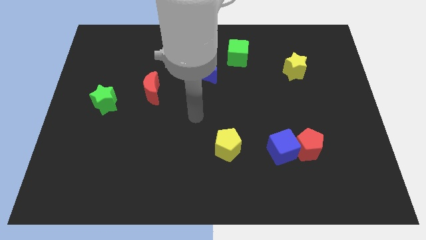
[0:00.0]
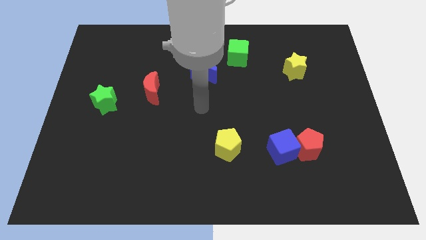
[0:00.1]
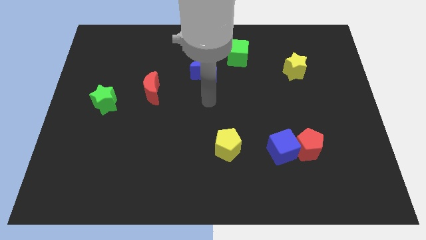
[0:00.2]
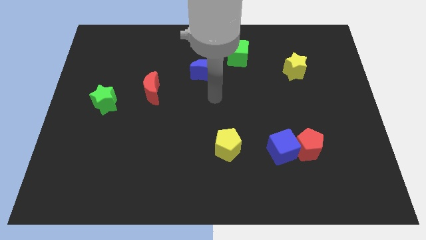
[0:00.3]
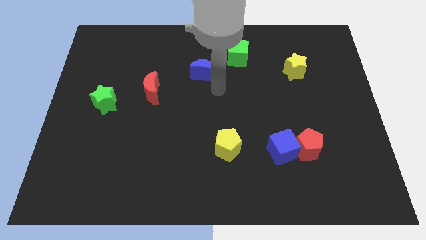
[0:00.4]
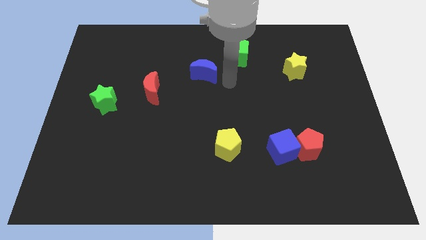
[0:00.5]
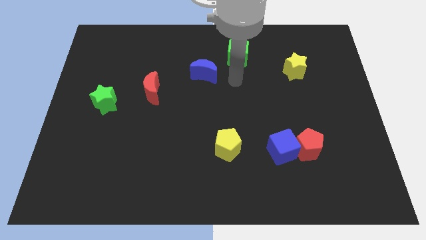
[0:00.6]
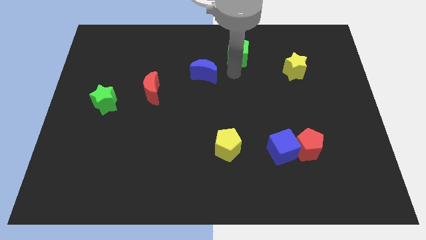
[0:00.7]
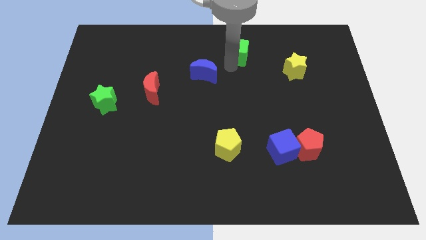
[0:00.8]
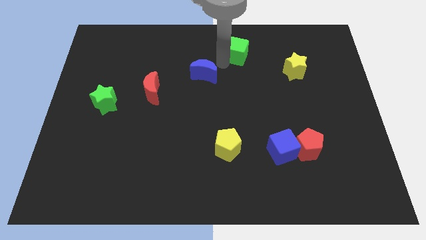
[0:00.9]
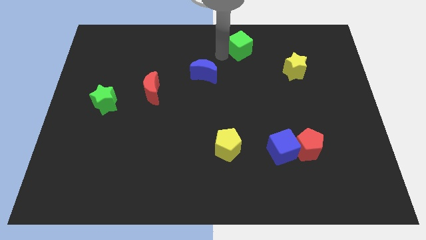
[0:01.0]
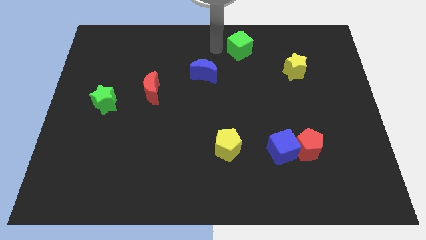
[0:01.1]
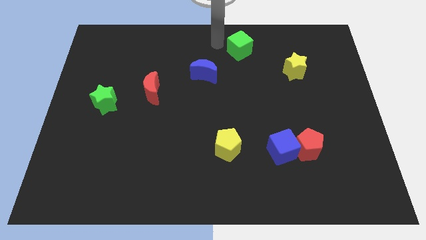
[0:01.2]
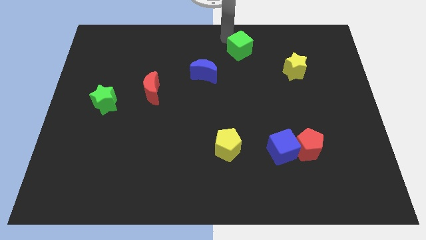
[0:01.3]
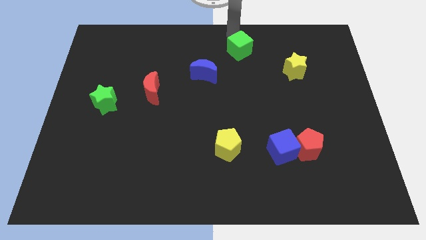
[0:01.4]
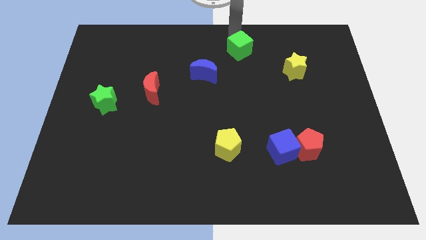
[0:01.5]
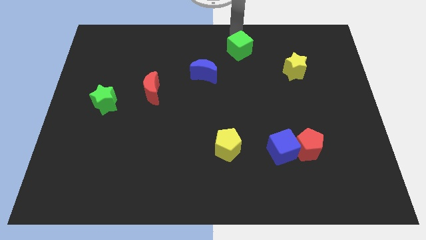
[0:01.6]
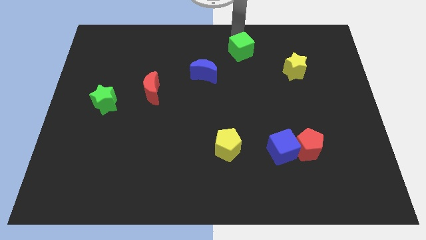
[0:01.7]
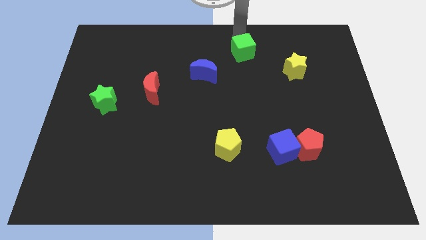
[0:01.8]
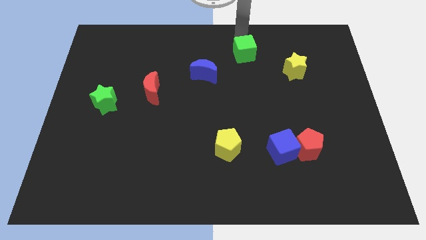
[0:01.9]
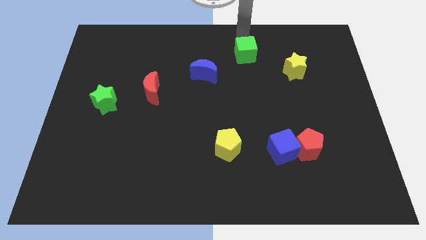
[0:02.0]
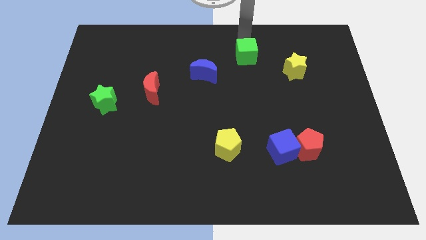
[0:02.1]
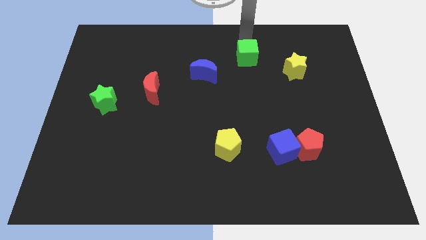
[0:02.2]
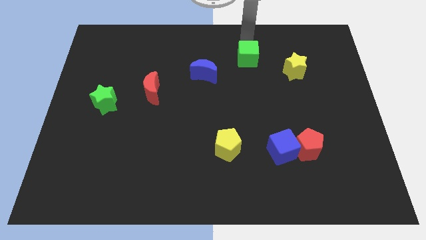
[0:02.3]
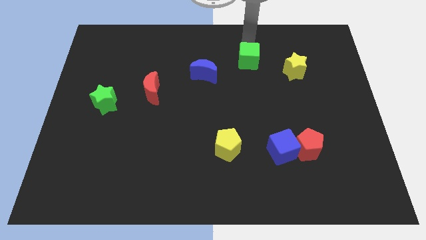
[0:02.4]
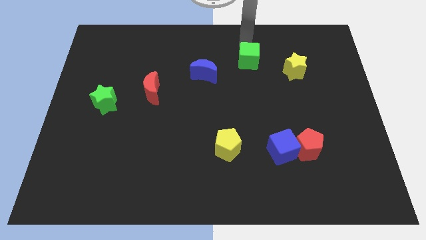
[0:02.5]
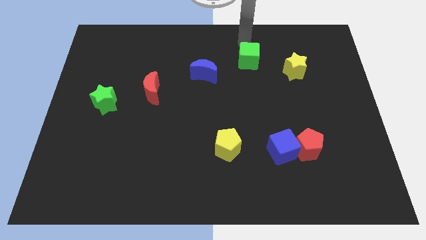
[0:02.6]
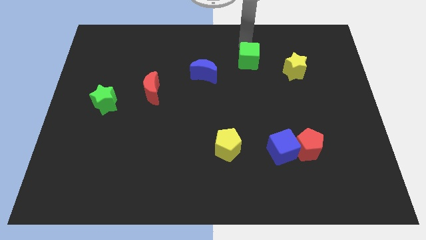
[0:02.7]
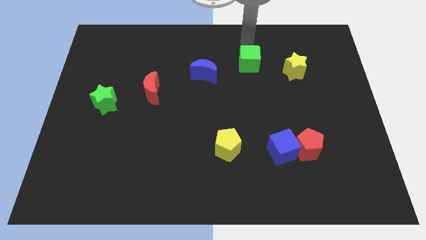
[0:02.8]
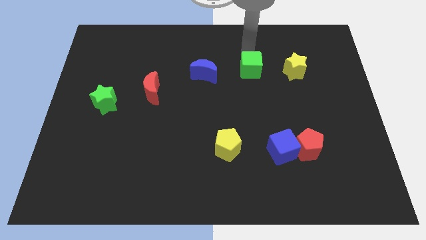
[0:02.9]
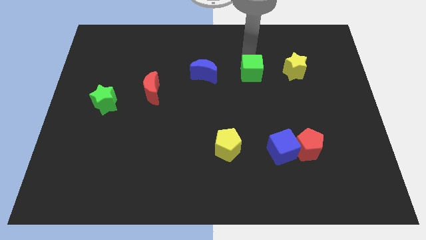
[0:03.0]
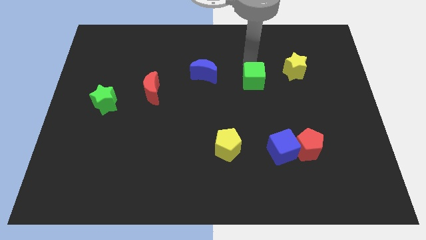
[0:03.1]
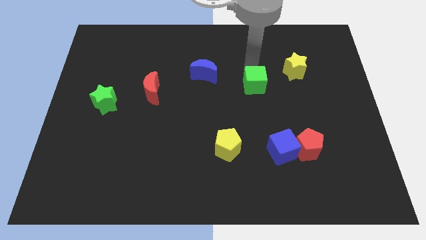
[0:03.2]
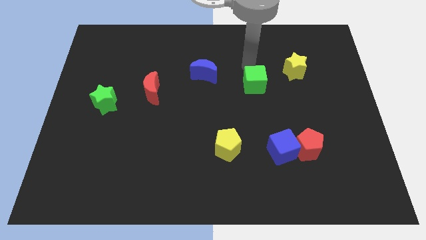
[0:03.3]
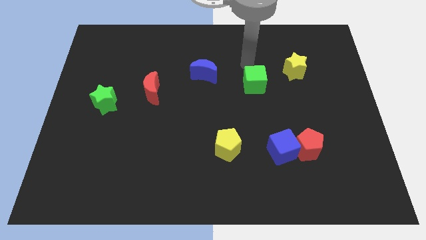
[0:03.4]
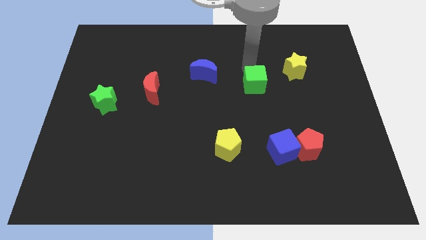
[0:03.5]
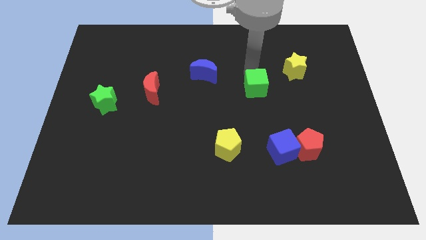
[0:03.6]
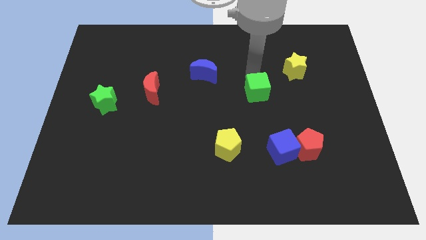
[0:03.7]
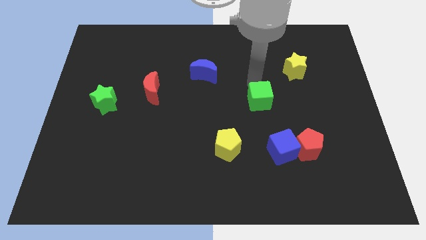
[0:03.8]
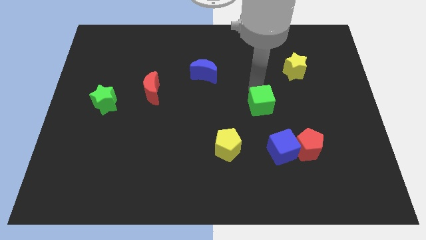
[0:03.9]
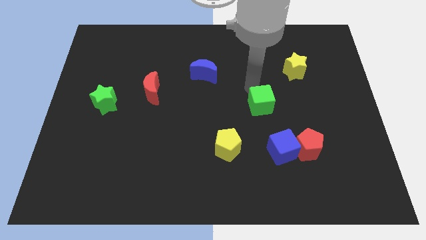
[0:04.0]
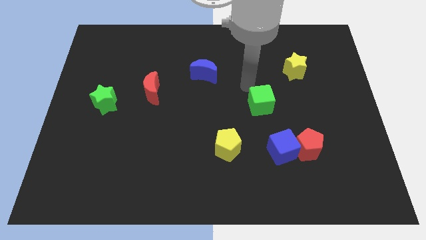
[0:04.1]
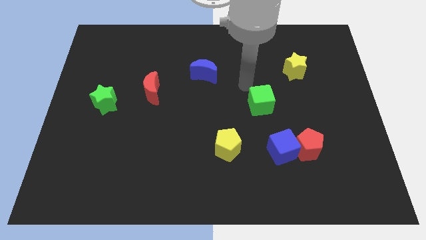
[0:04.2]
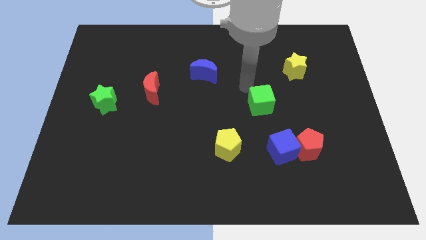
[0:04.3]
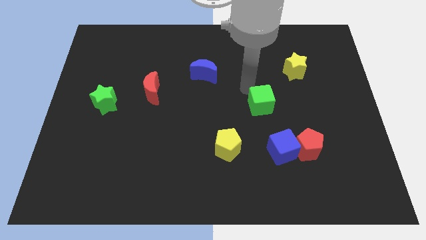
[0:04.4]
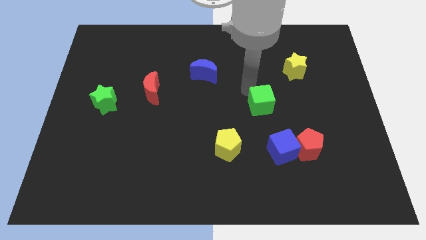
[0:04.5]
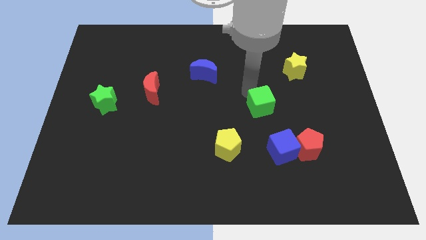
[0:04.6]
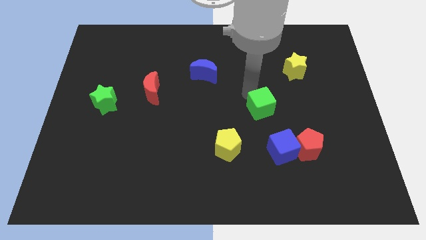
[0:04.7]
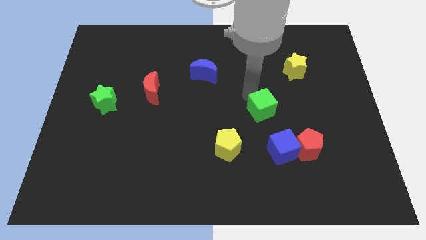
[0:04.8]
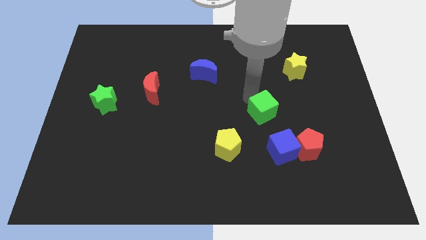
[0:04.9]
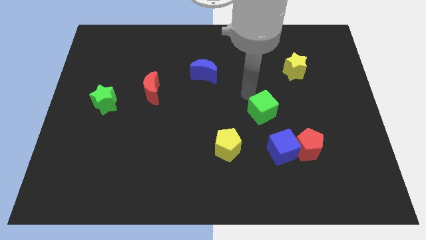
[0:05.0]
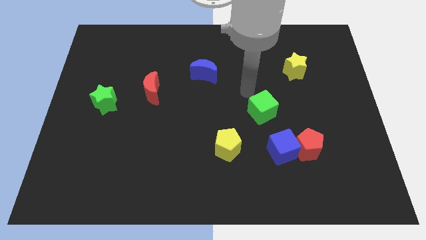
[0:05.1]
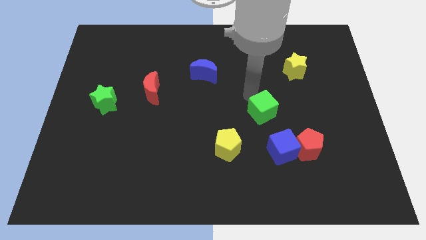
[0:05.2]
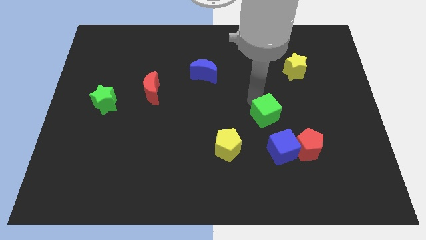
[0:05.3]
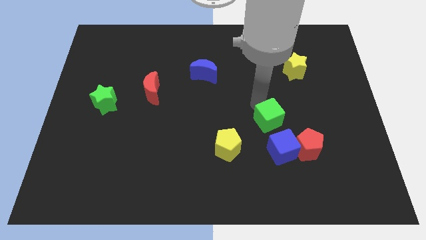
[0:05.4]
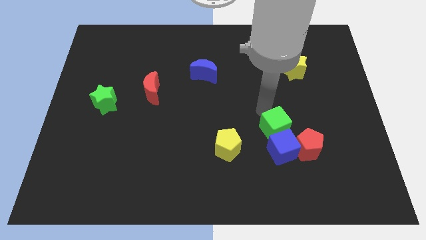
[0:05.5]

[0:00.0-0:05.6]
slide the green cube close to the blue cube

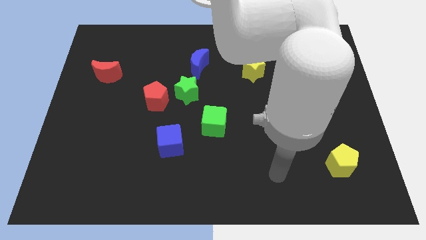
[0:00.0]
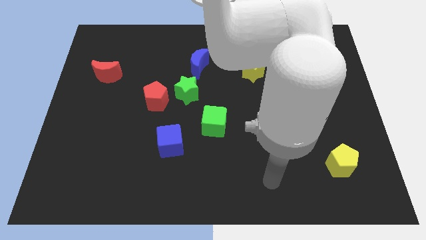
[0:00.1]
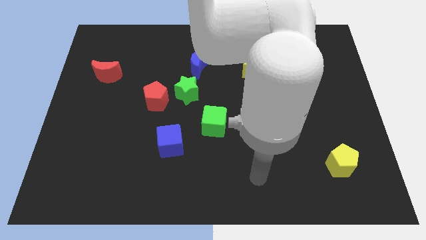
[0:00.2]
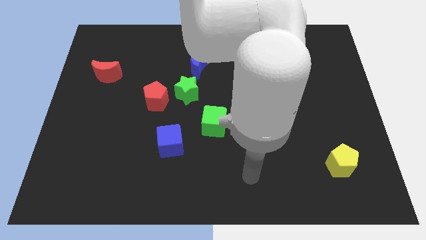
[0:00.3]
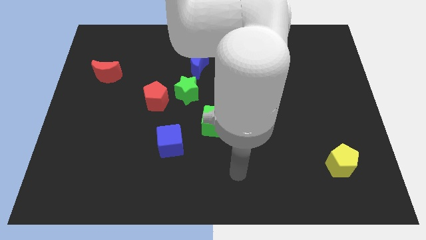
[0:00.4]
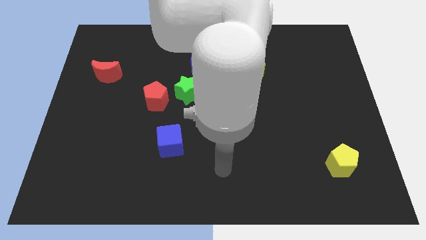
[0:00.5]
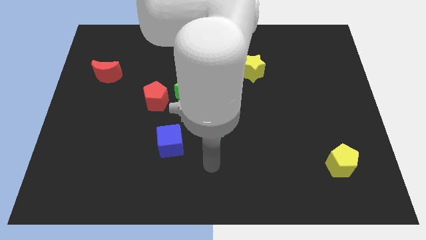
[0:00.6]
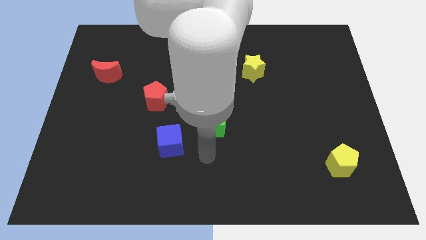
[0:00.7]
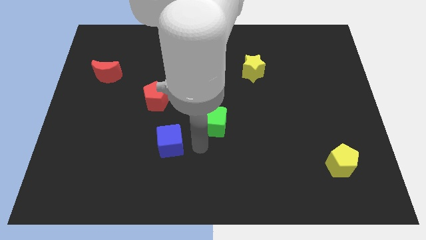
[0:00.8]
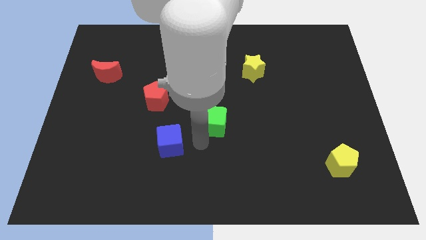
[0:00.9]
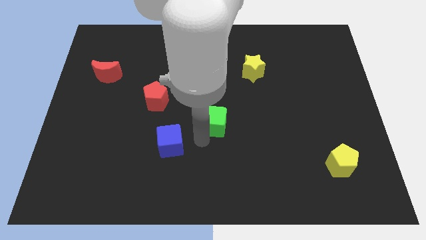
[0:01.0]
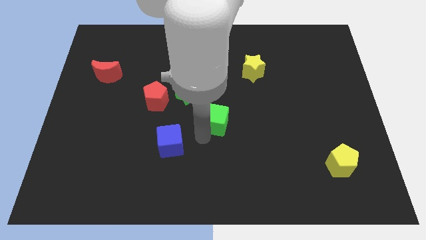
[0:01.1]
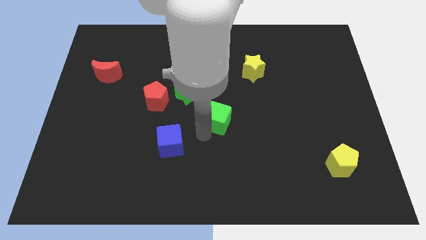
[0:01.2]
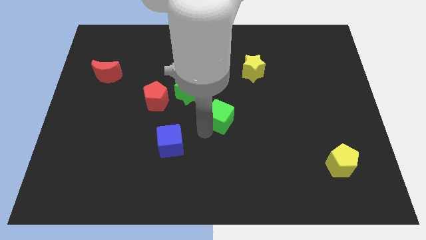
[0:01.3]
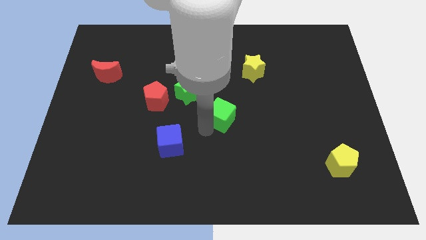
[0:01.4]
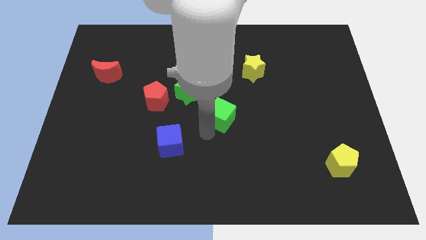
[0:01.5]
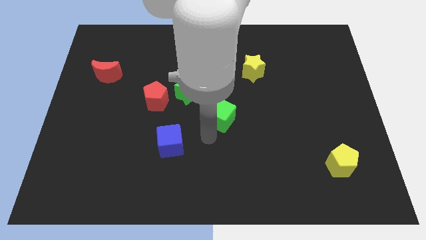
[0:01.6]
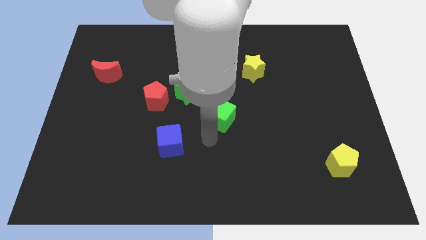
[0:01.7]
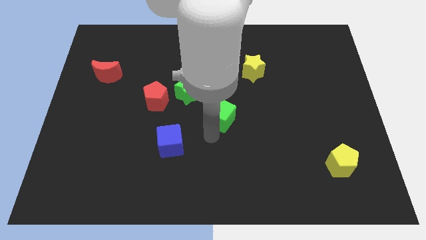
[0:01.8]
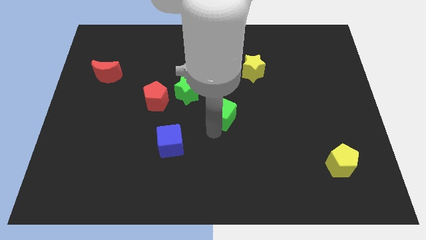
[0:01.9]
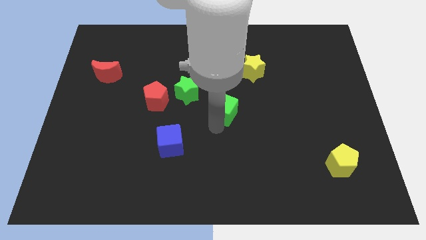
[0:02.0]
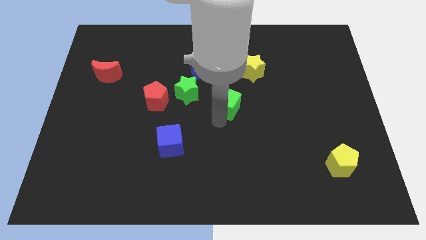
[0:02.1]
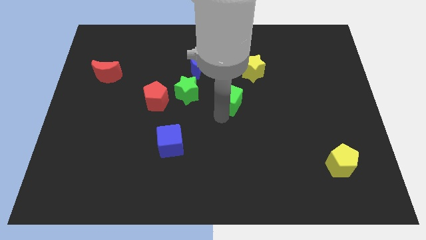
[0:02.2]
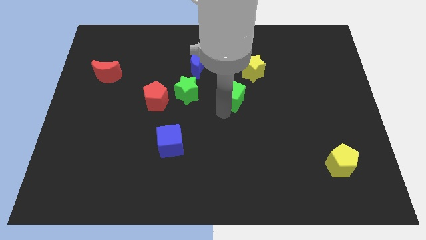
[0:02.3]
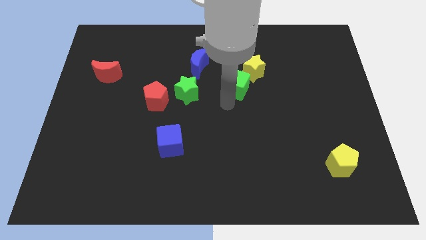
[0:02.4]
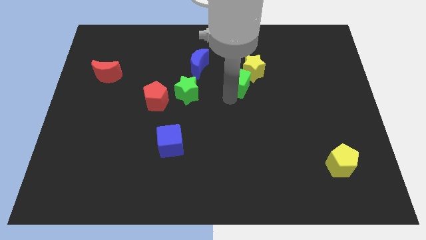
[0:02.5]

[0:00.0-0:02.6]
push the green cube close to the yellow star
